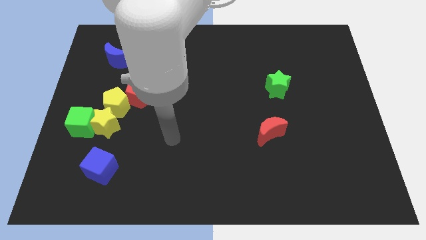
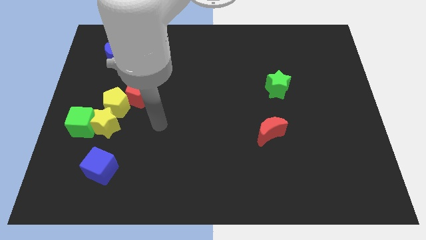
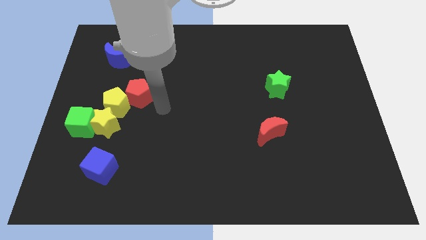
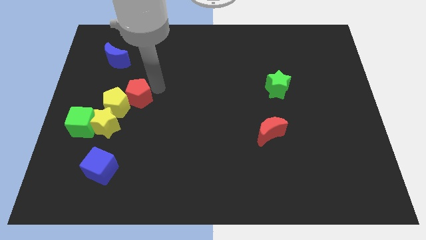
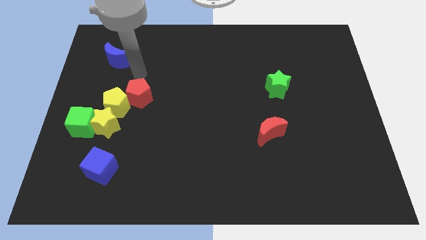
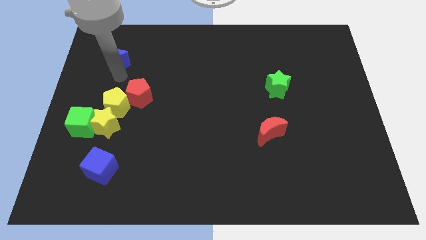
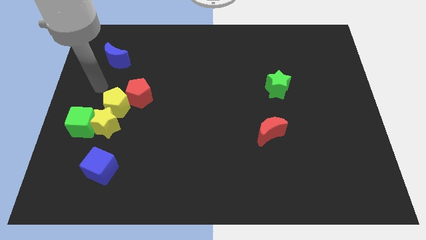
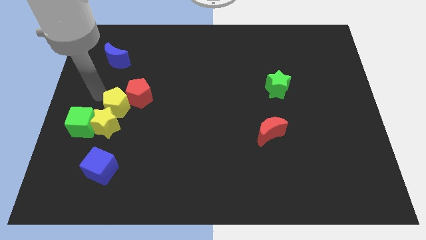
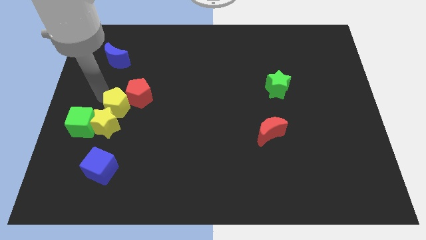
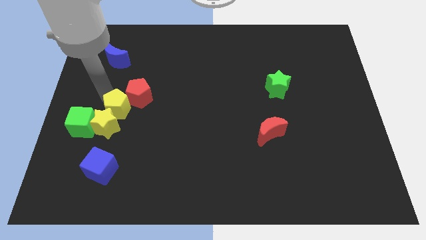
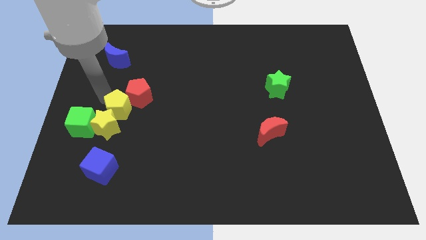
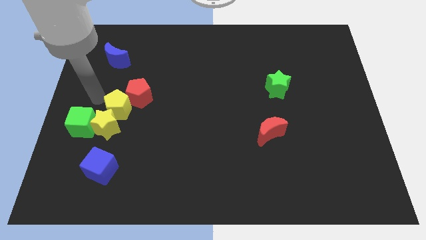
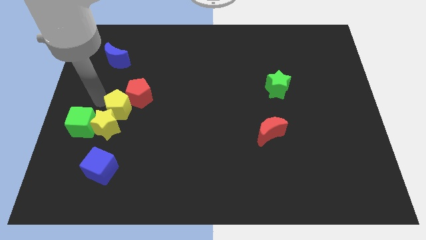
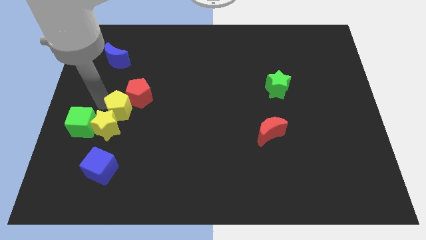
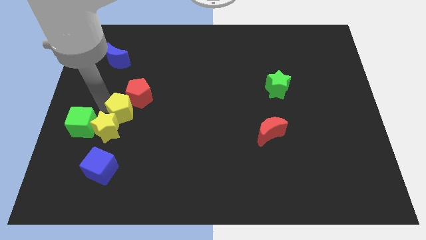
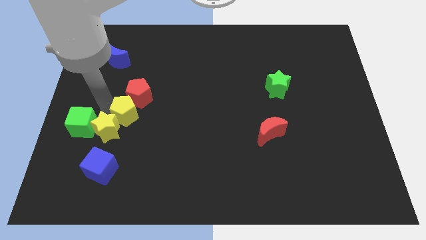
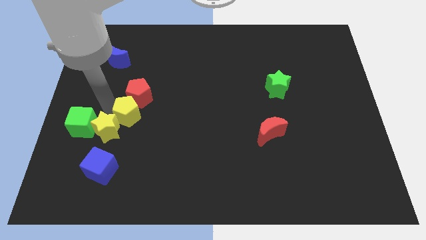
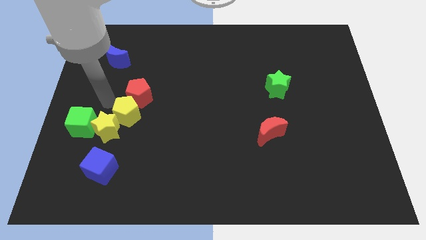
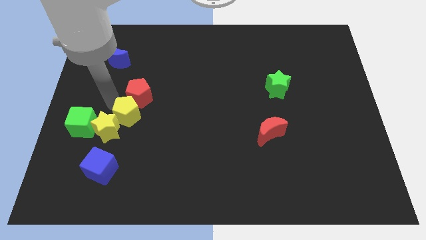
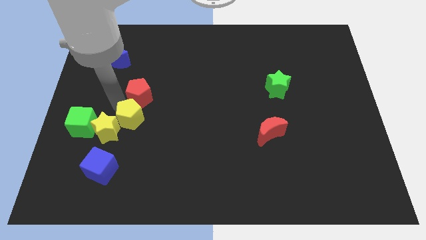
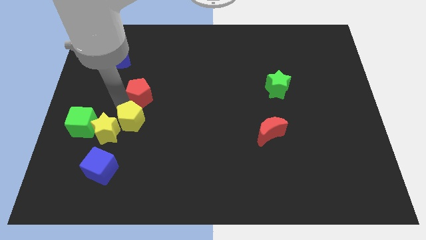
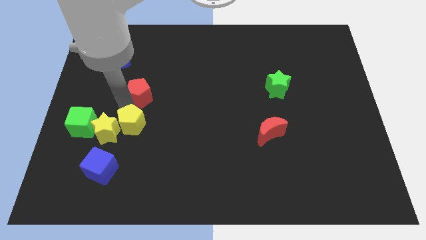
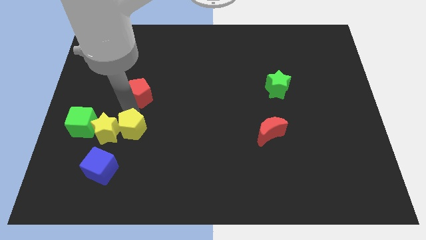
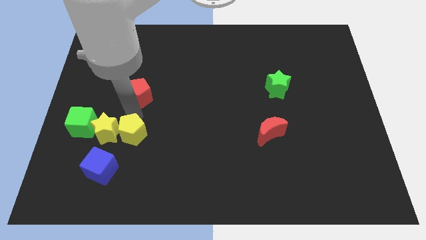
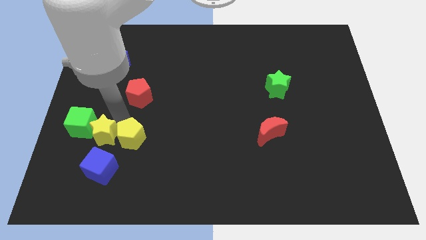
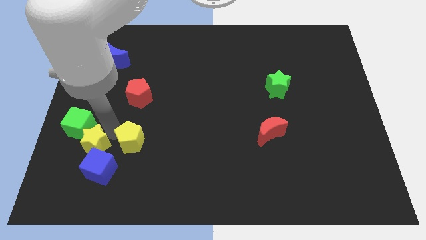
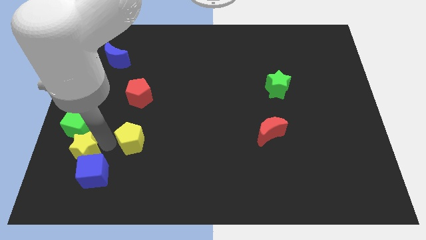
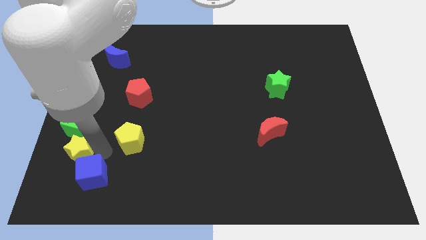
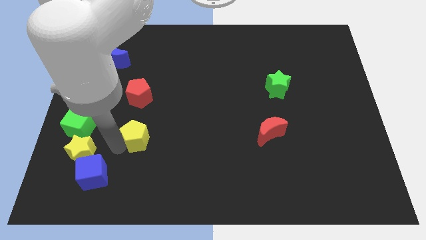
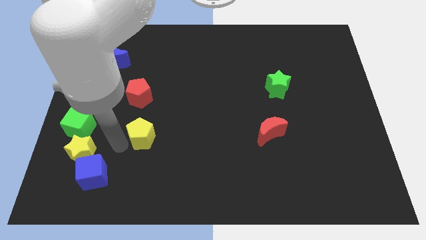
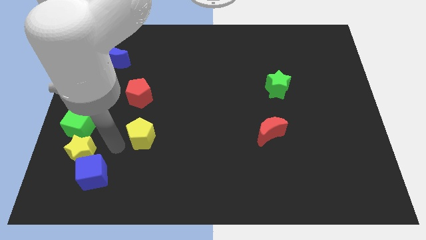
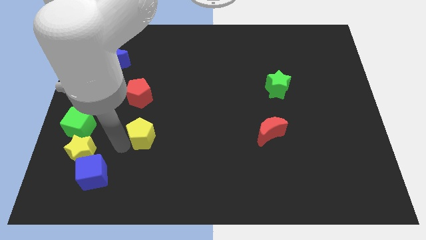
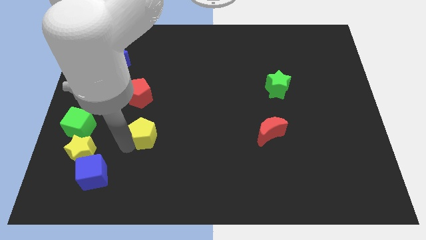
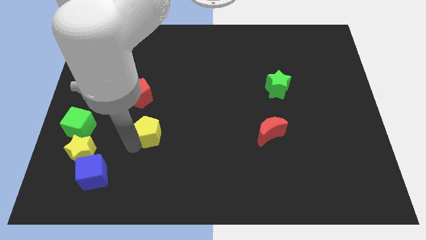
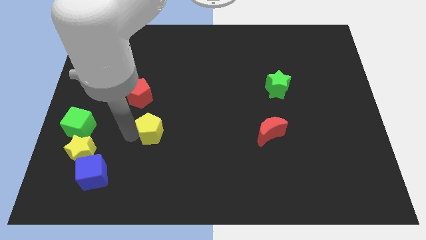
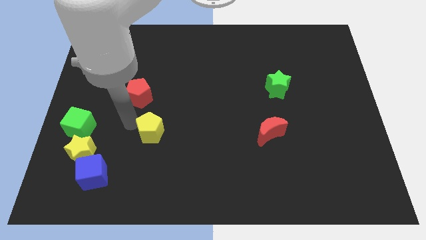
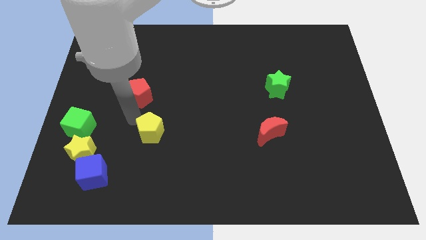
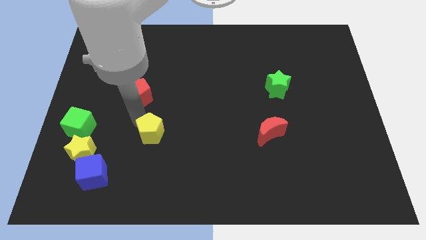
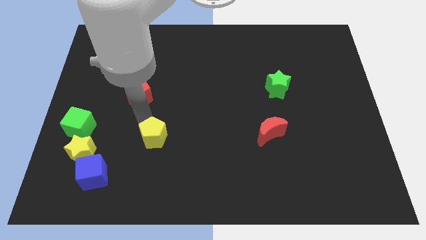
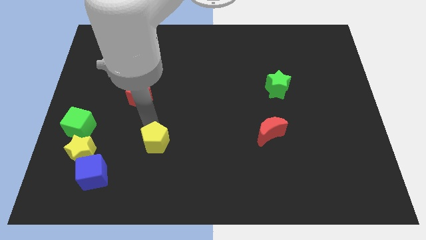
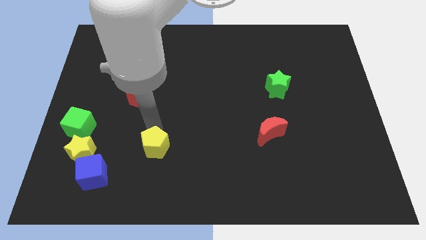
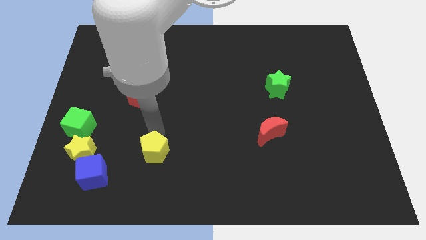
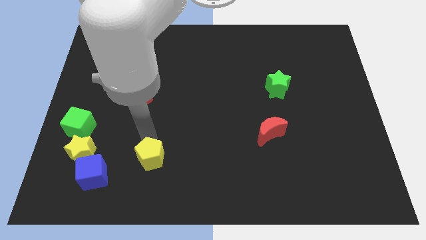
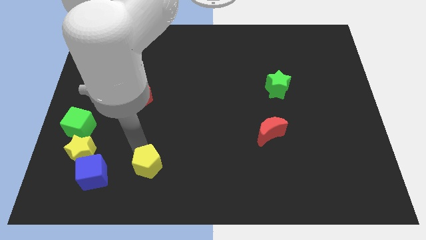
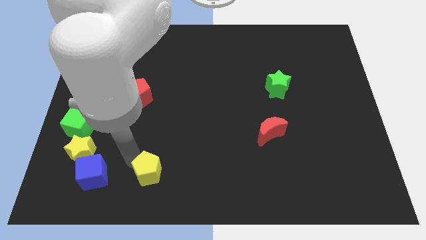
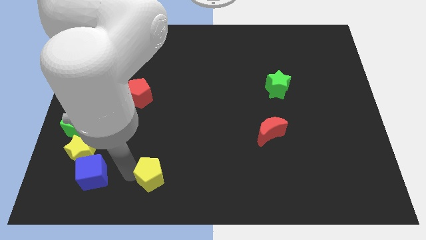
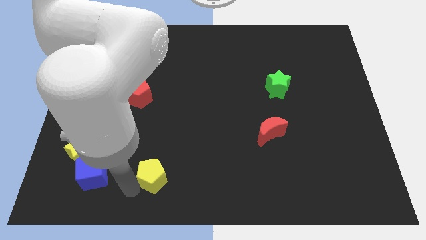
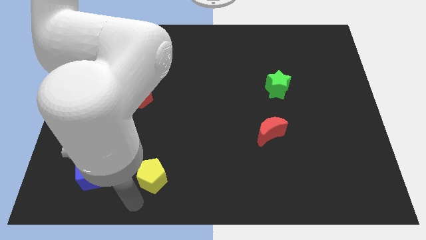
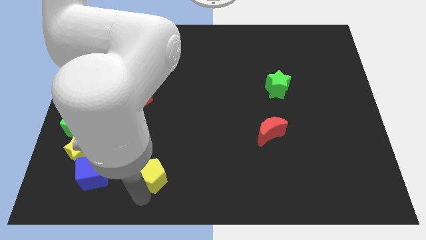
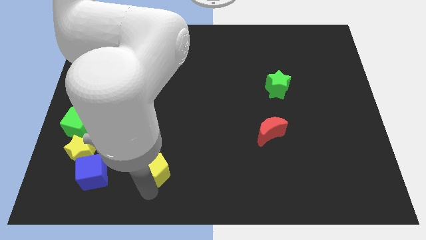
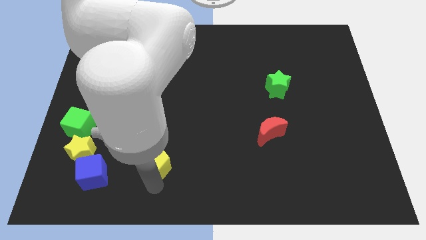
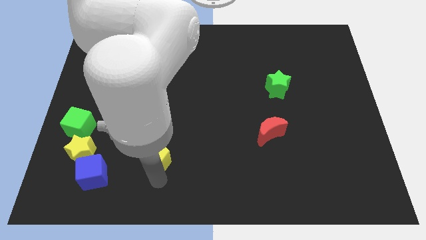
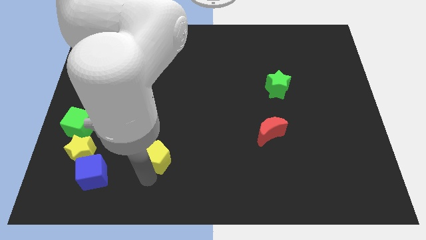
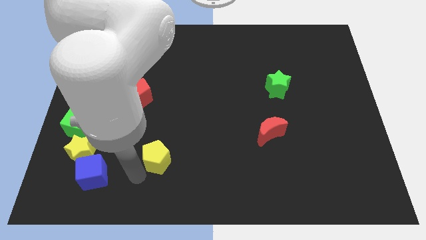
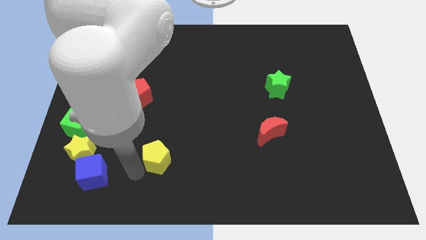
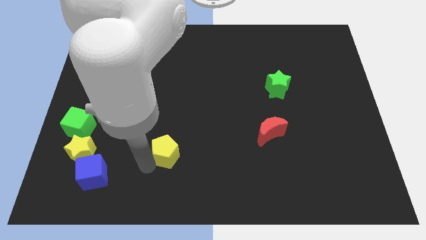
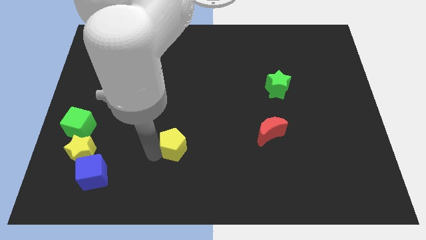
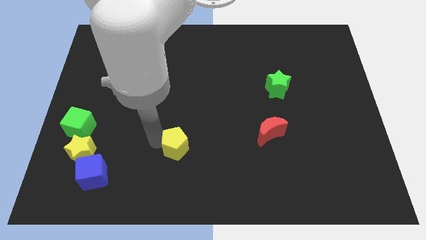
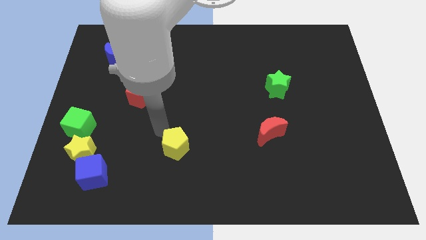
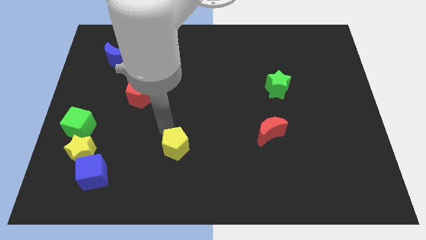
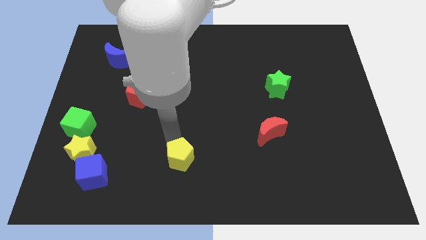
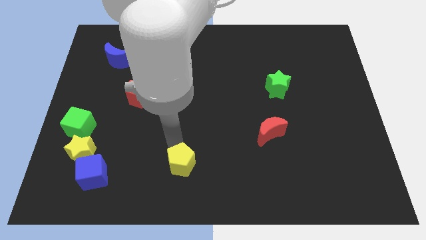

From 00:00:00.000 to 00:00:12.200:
push the yellow pentagon to the bottom

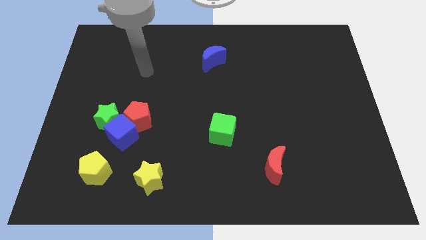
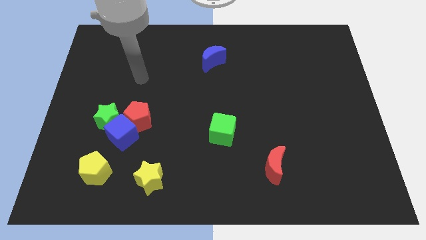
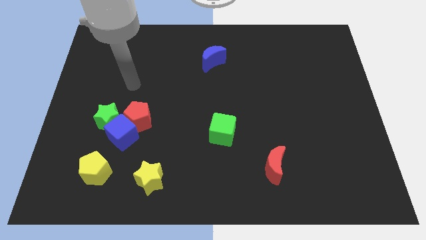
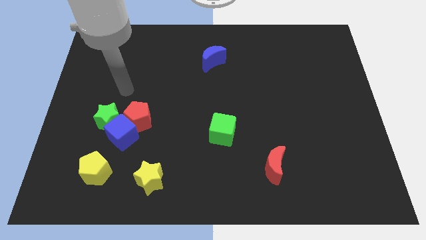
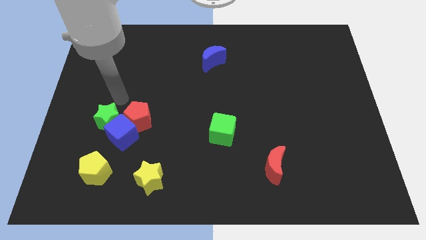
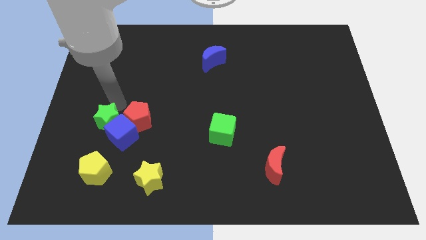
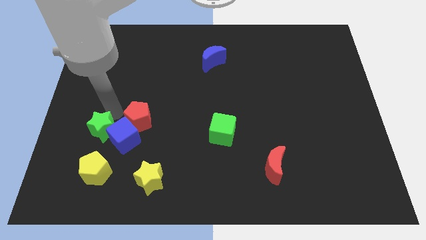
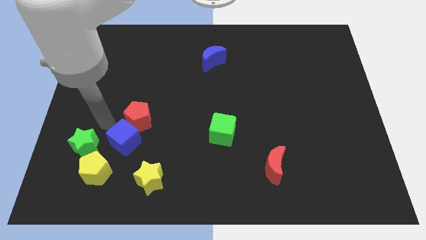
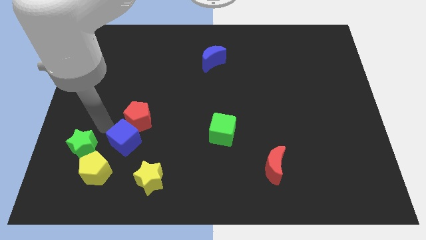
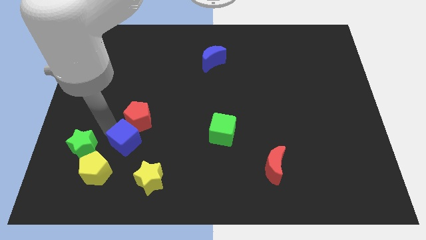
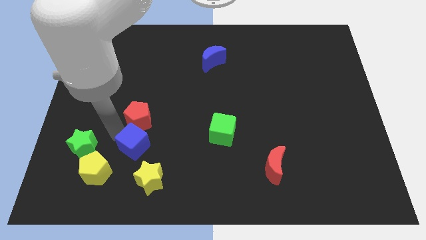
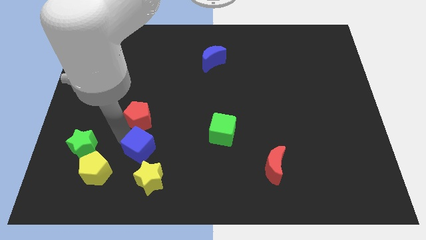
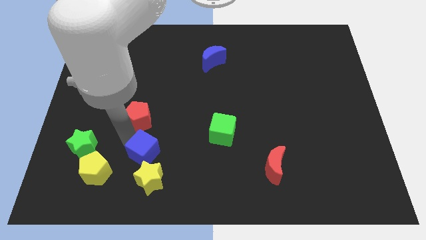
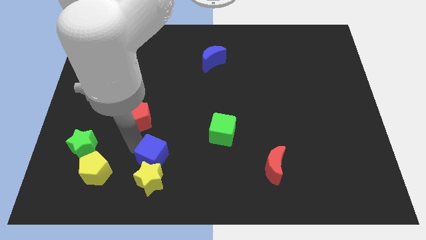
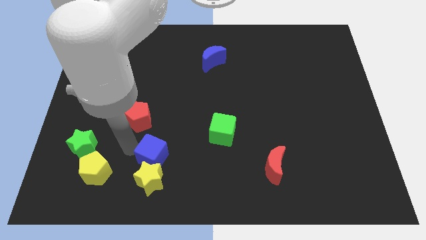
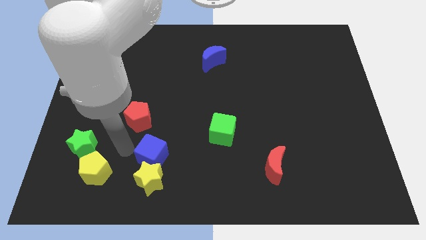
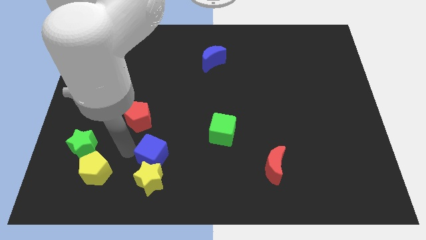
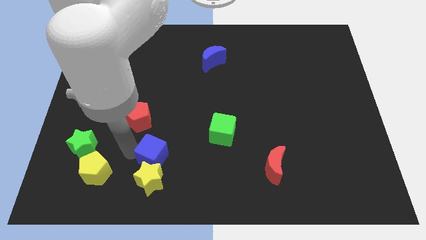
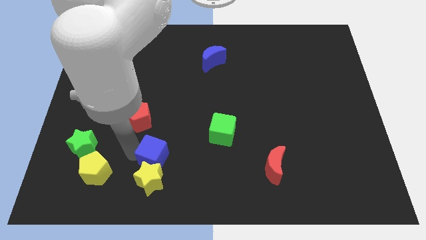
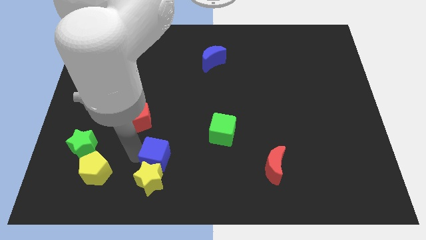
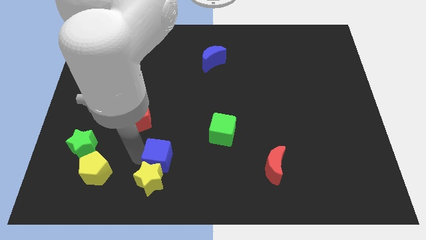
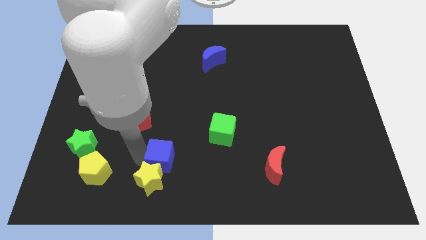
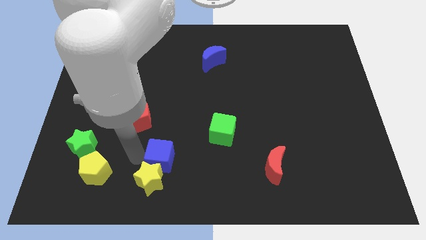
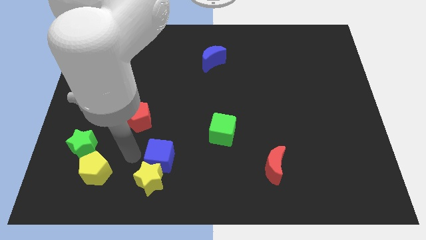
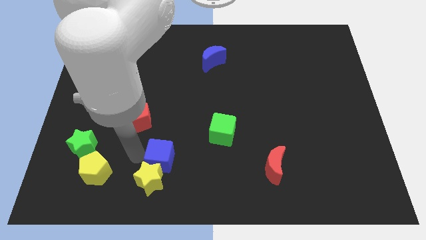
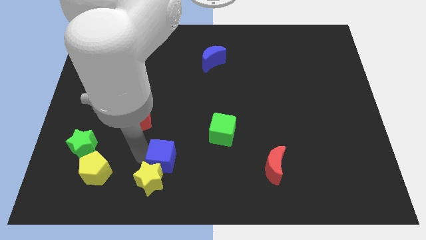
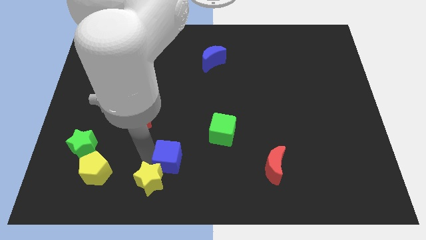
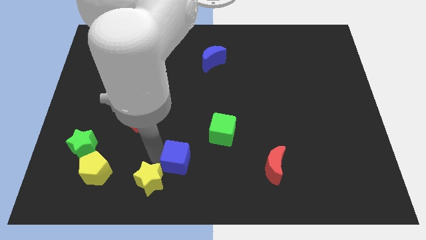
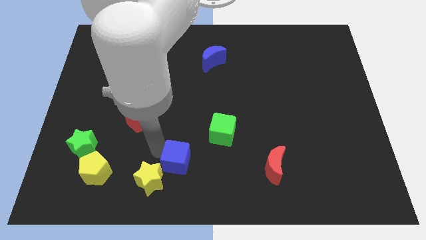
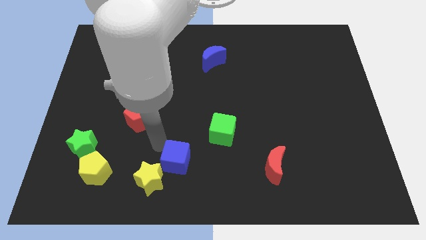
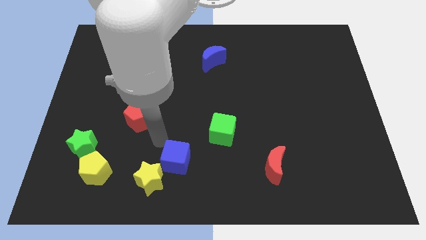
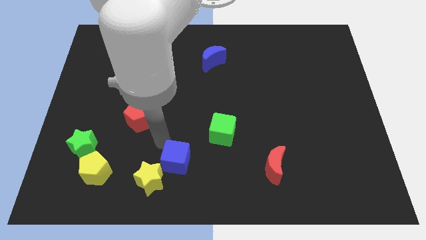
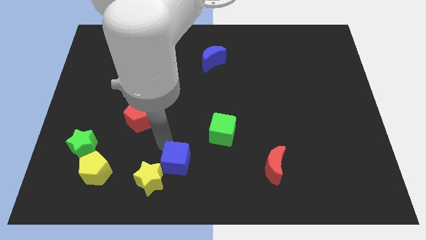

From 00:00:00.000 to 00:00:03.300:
put the blue cube to the bottom side
